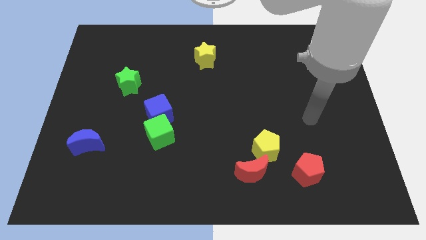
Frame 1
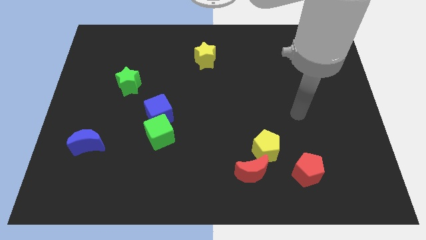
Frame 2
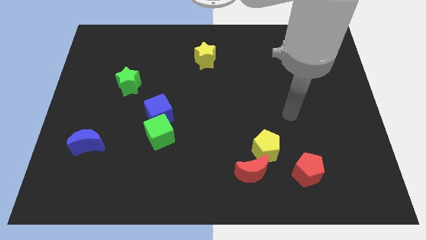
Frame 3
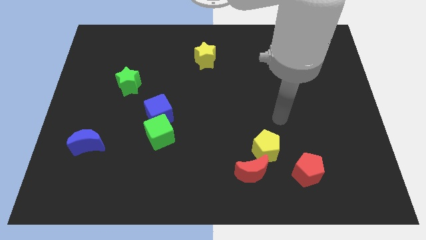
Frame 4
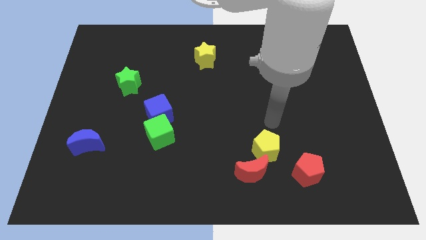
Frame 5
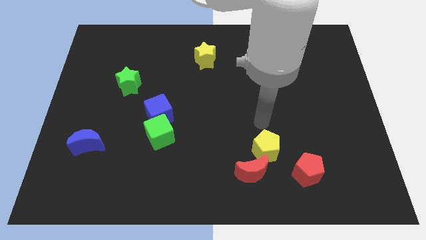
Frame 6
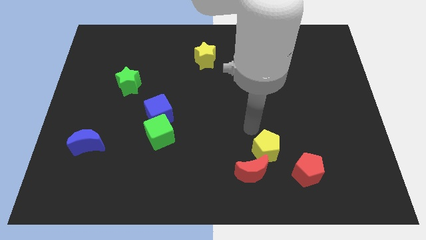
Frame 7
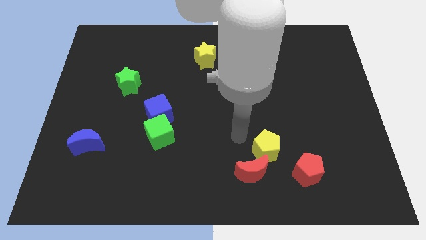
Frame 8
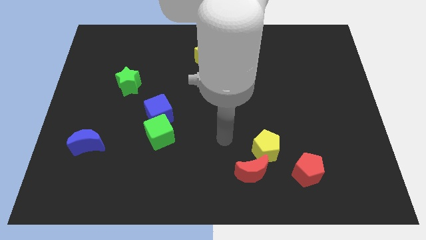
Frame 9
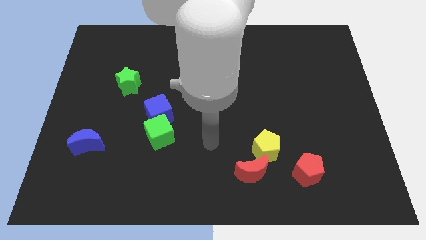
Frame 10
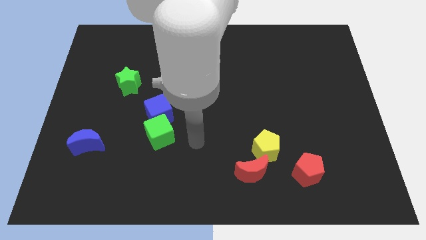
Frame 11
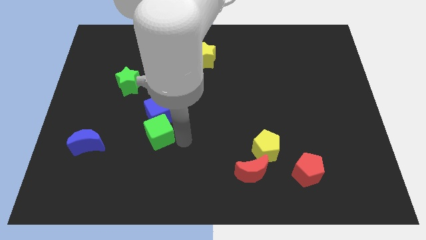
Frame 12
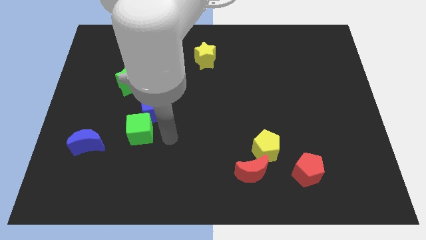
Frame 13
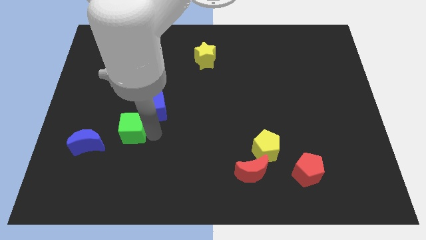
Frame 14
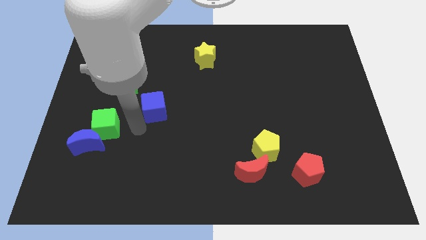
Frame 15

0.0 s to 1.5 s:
move the blue cube away from the green cube

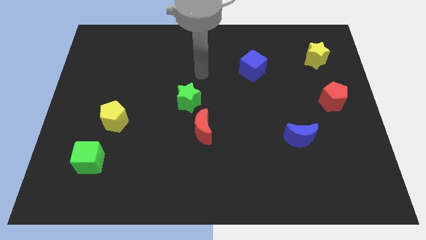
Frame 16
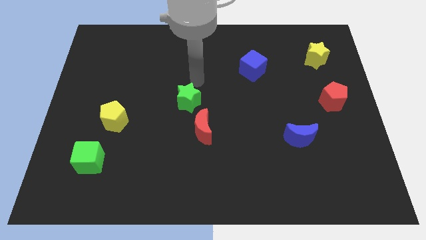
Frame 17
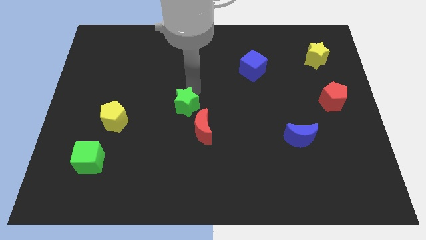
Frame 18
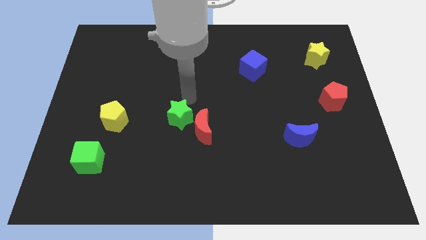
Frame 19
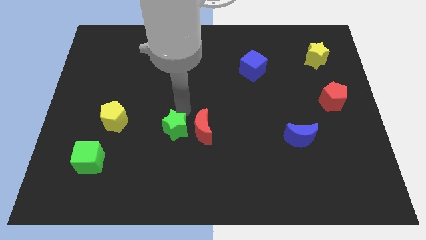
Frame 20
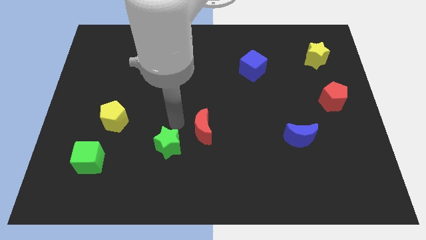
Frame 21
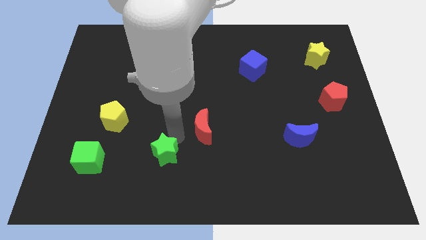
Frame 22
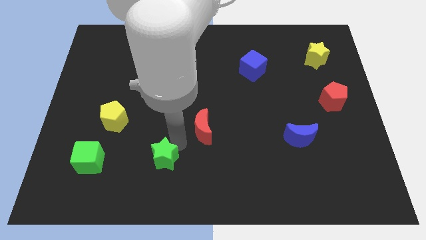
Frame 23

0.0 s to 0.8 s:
pull the red moon apart from the green star

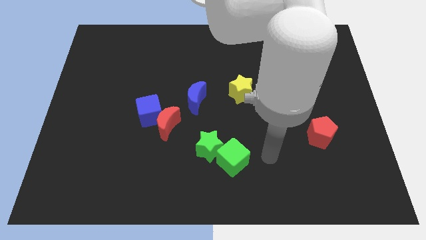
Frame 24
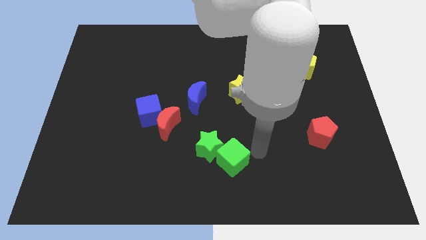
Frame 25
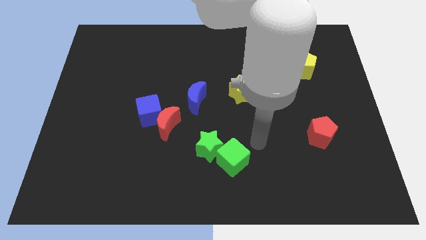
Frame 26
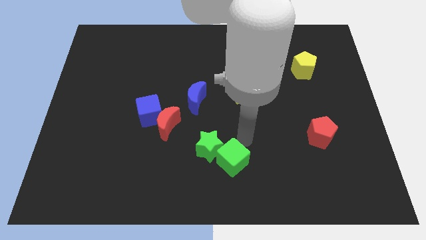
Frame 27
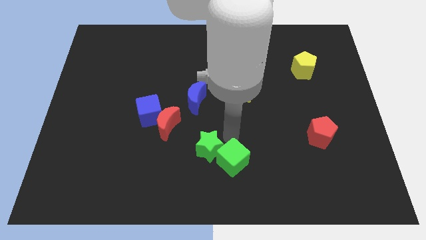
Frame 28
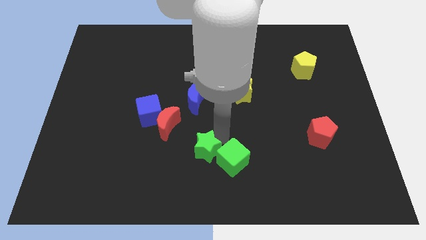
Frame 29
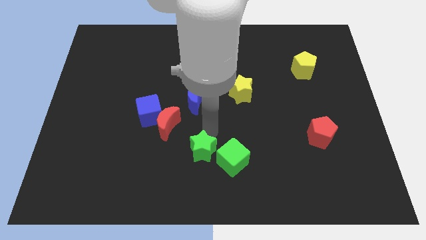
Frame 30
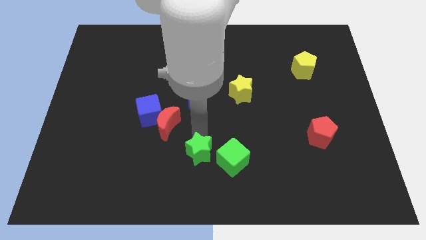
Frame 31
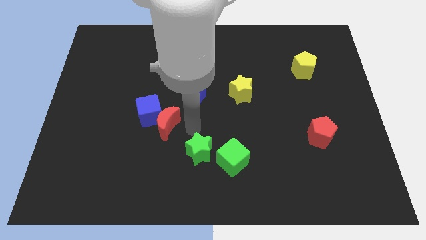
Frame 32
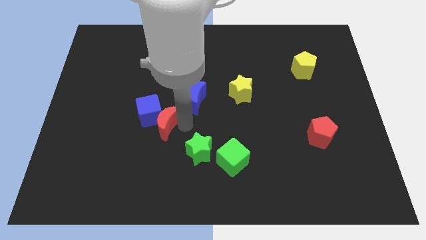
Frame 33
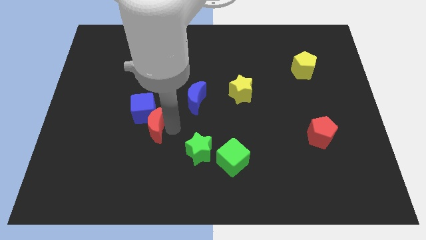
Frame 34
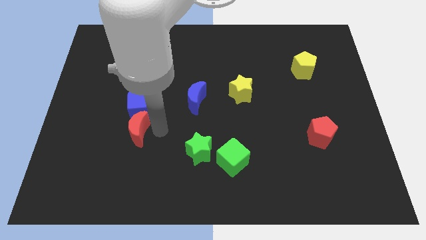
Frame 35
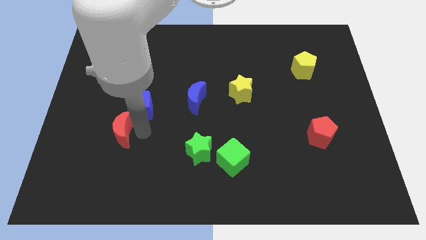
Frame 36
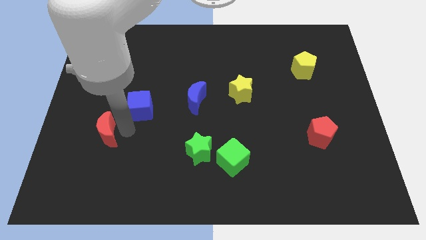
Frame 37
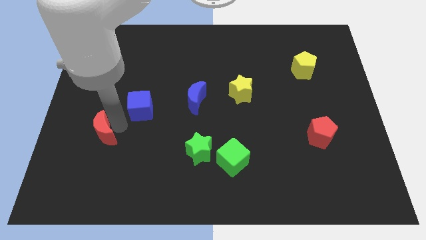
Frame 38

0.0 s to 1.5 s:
separate the blue cube from the red moon

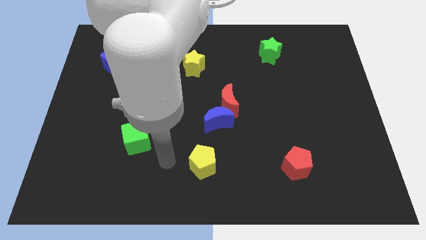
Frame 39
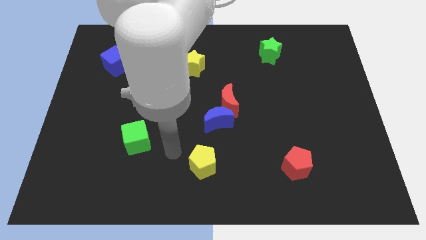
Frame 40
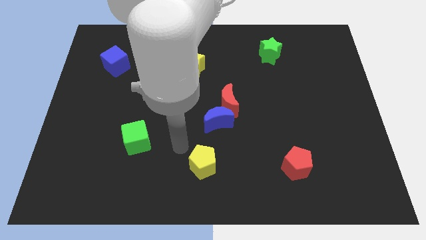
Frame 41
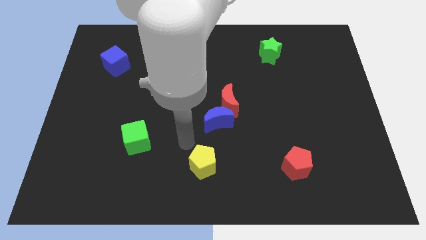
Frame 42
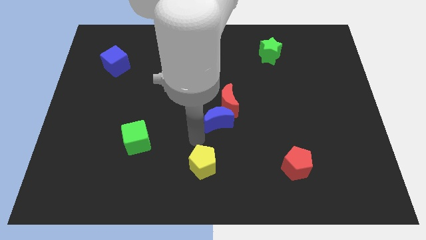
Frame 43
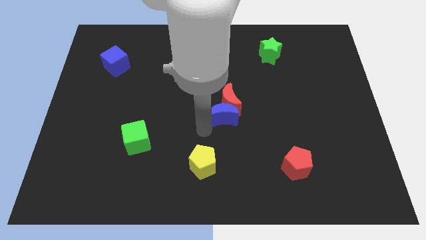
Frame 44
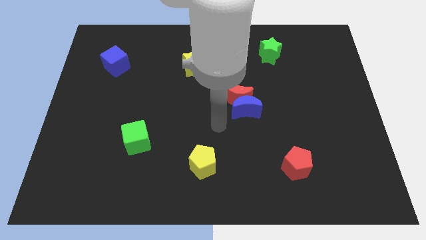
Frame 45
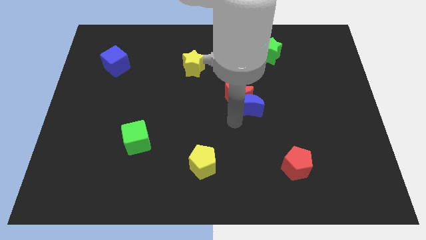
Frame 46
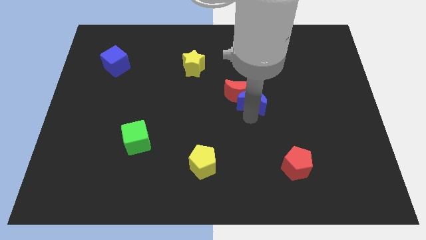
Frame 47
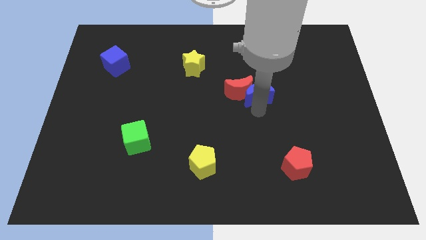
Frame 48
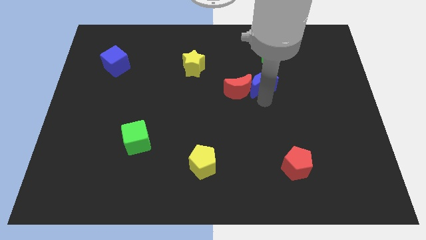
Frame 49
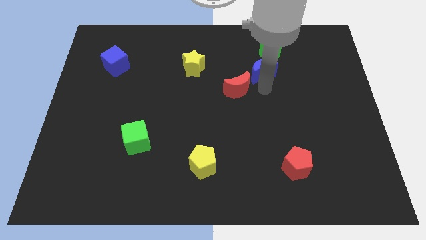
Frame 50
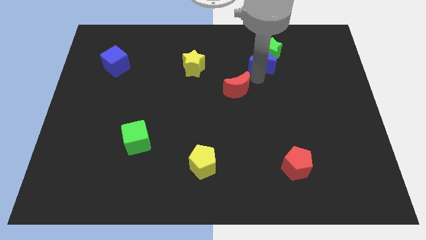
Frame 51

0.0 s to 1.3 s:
pull the red moon apart from the blue moon

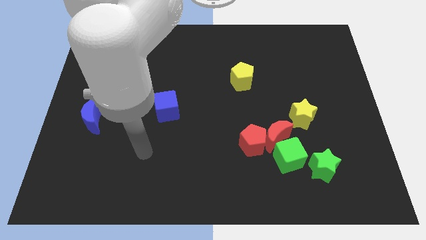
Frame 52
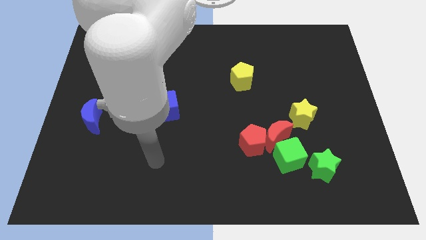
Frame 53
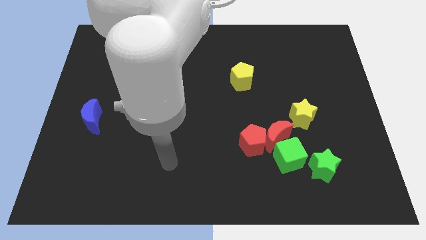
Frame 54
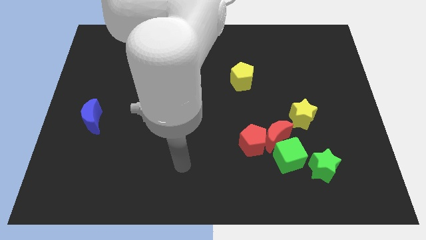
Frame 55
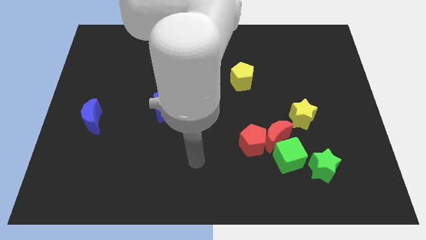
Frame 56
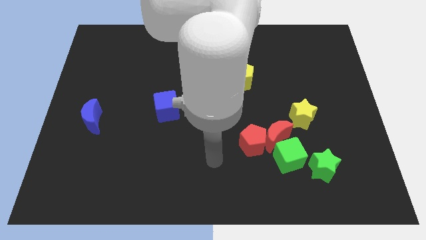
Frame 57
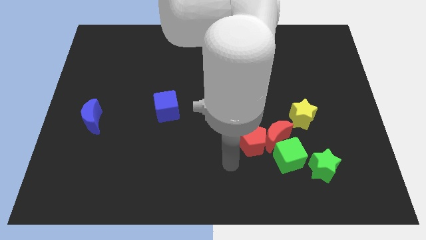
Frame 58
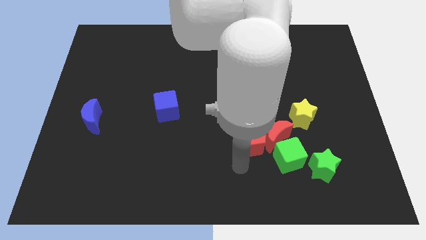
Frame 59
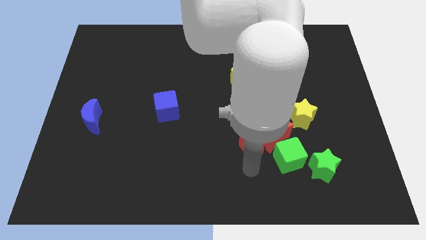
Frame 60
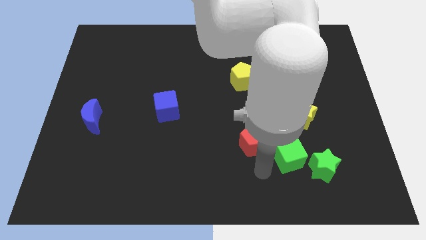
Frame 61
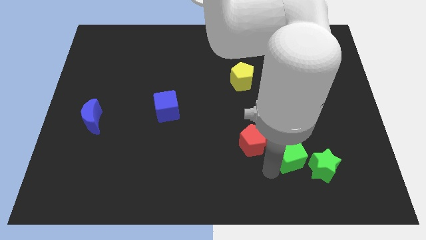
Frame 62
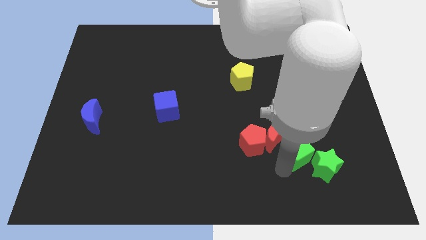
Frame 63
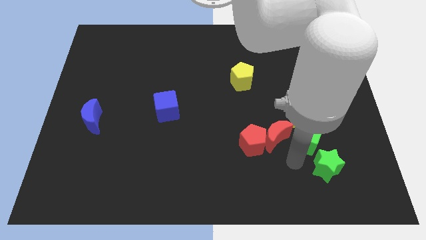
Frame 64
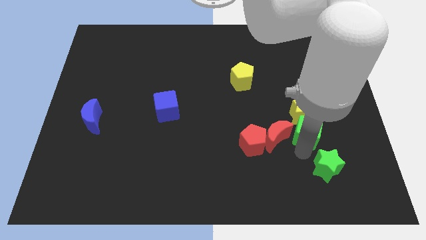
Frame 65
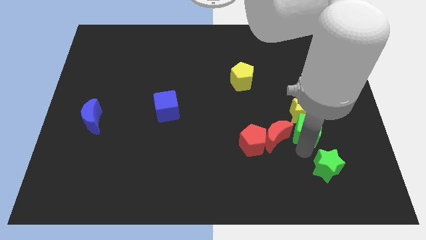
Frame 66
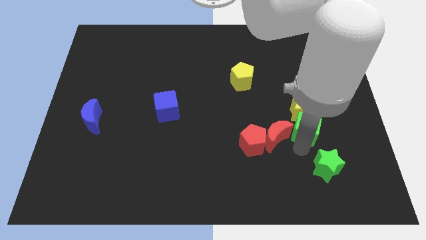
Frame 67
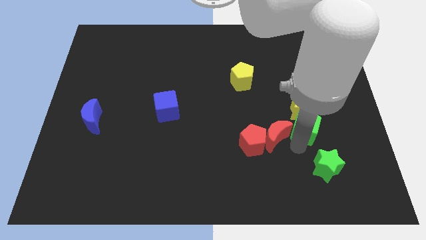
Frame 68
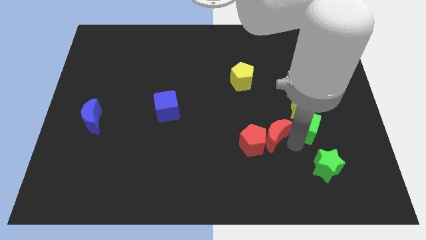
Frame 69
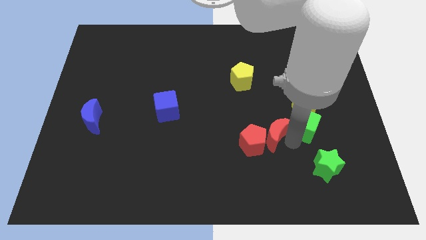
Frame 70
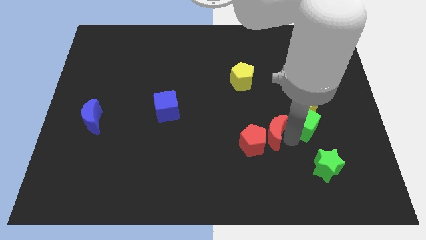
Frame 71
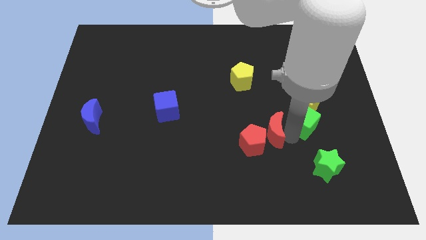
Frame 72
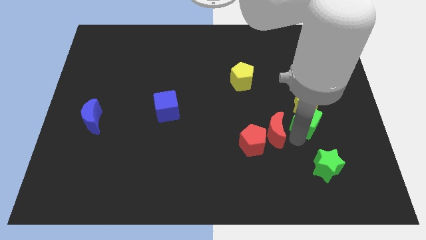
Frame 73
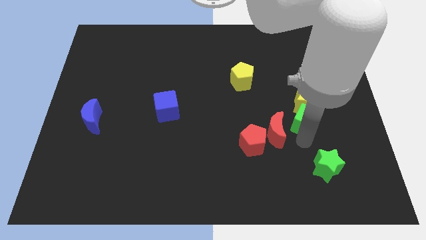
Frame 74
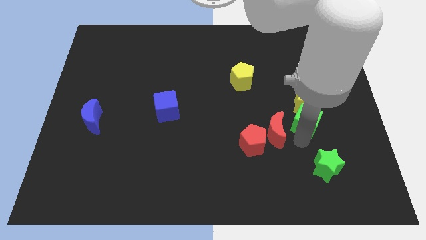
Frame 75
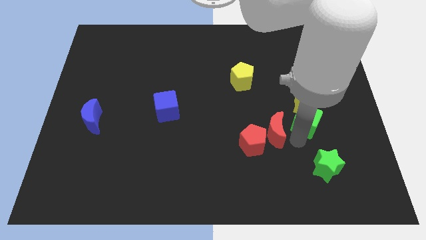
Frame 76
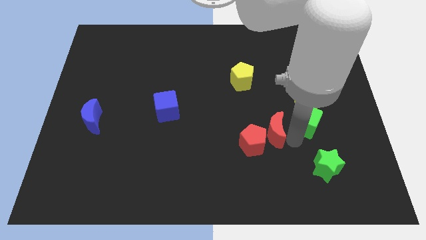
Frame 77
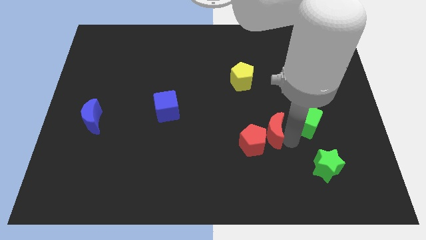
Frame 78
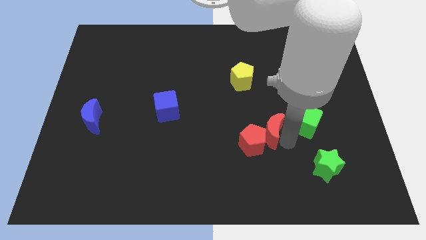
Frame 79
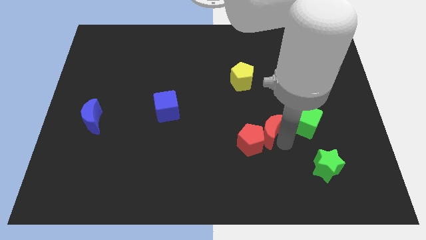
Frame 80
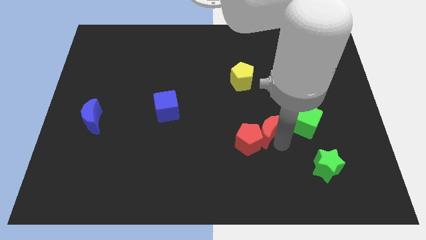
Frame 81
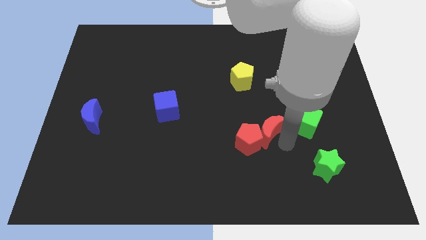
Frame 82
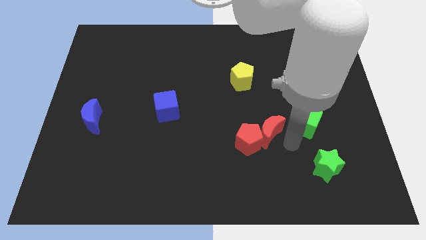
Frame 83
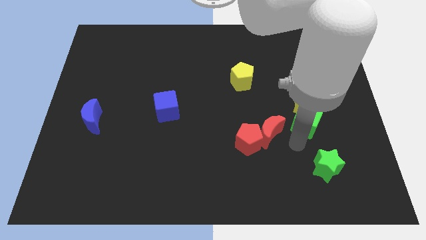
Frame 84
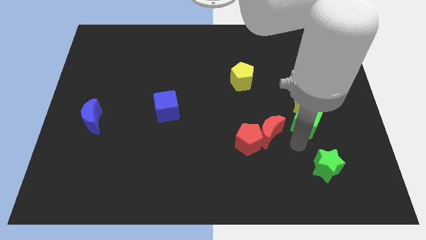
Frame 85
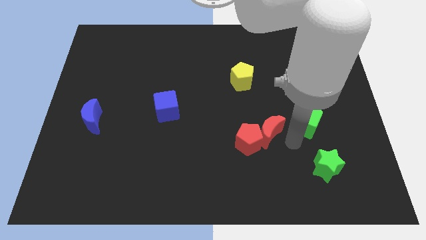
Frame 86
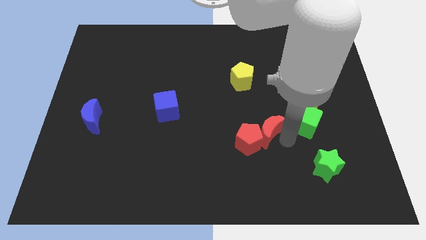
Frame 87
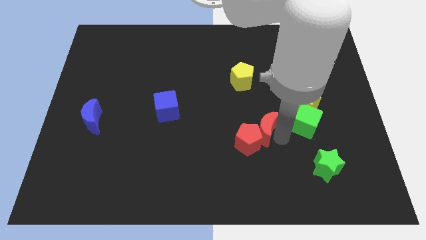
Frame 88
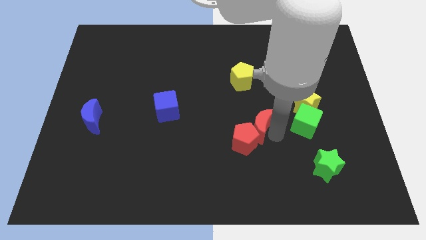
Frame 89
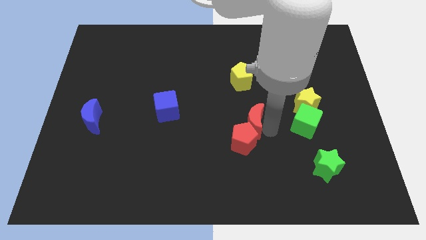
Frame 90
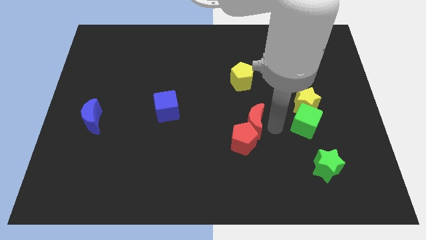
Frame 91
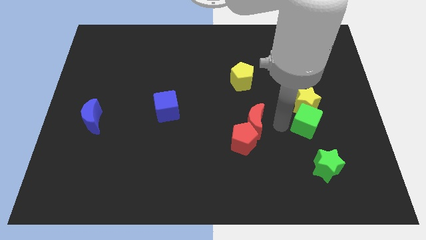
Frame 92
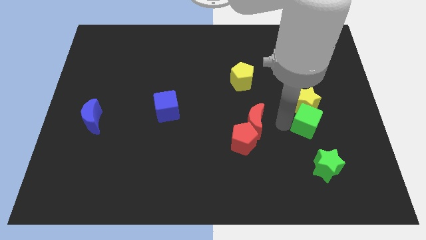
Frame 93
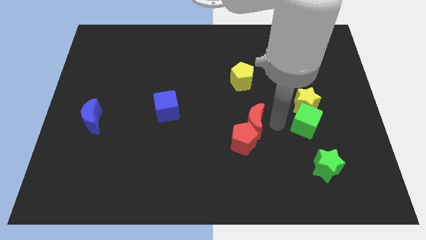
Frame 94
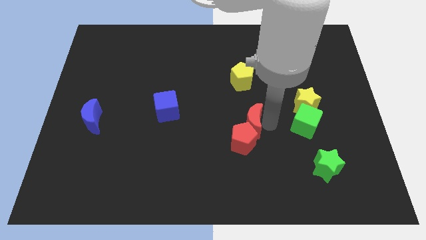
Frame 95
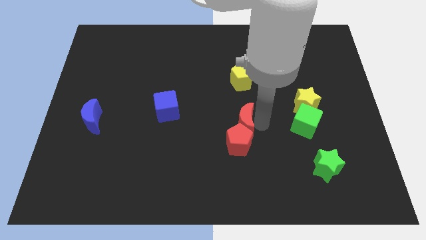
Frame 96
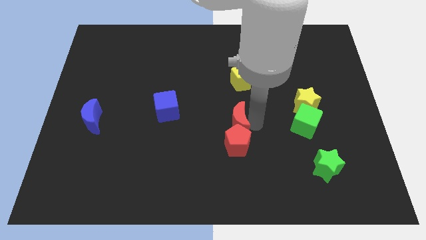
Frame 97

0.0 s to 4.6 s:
move the red moon away from the red pentagon, green cube, and yellow star
